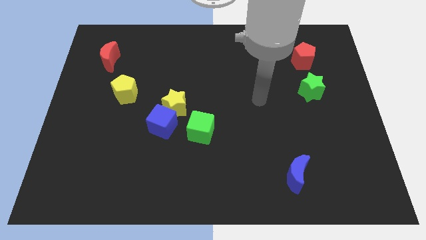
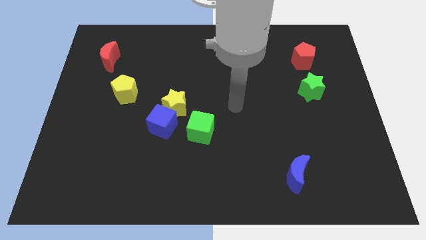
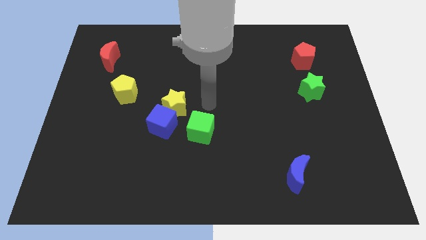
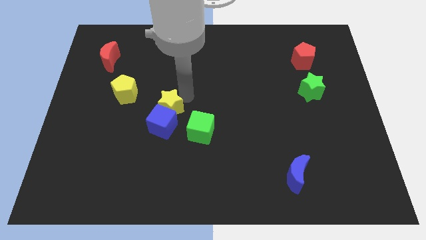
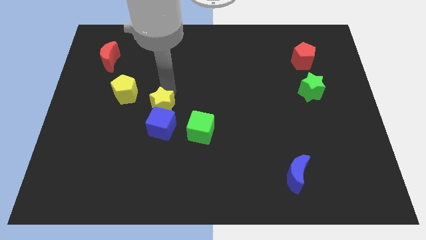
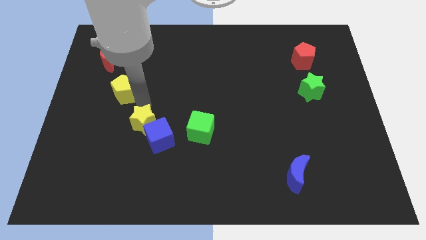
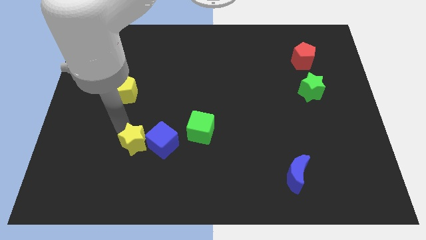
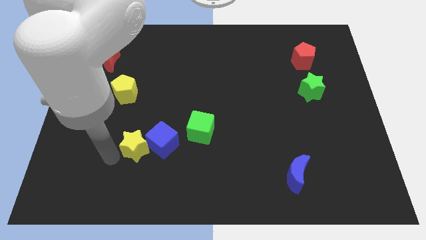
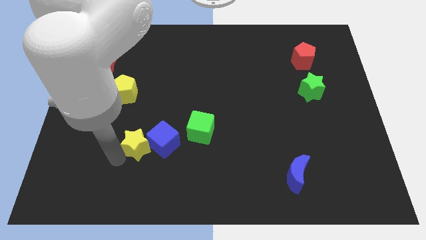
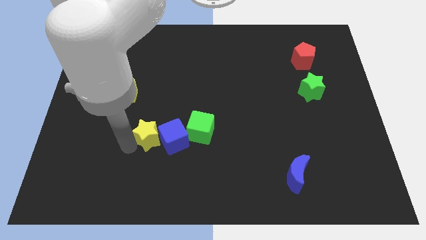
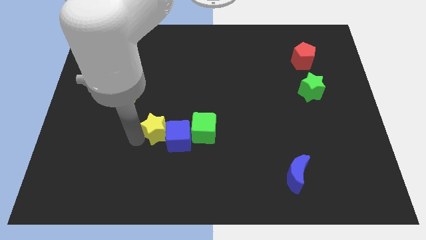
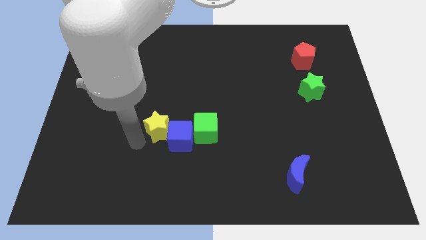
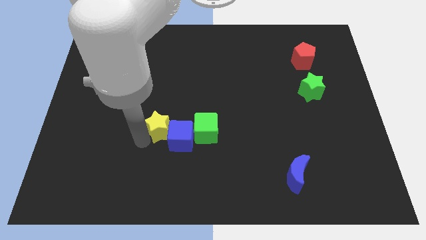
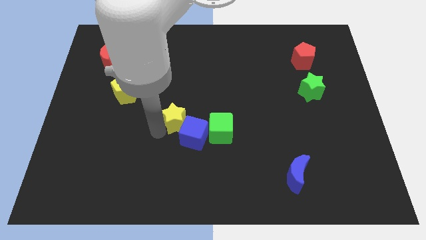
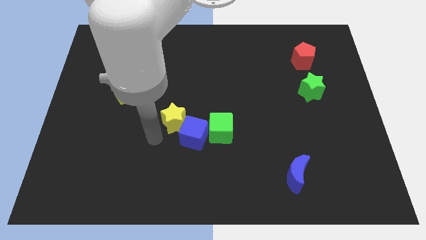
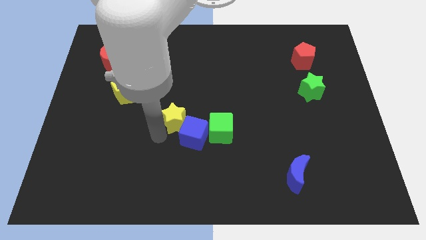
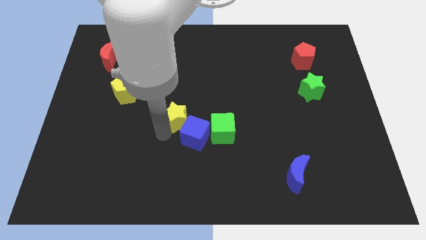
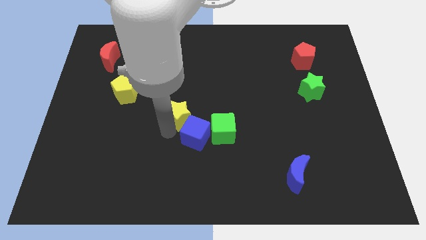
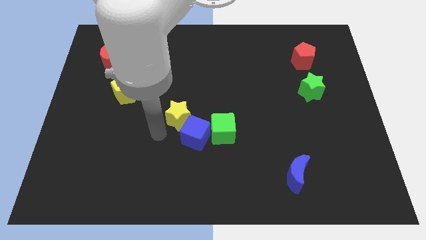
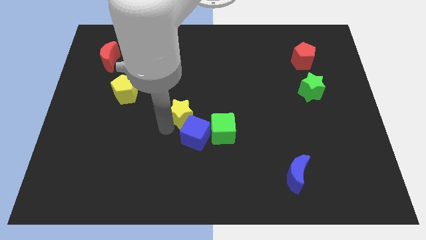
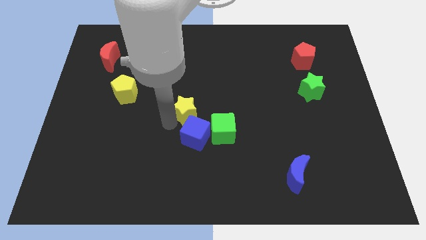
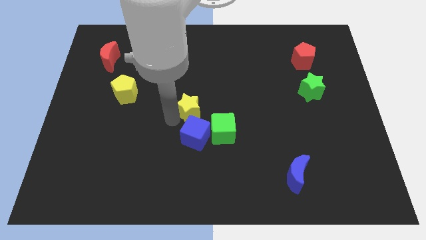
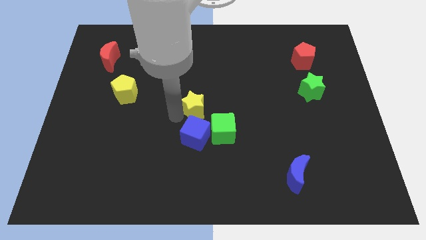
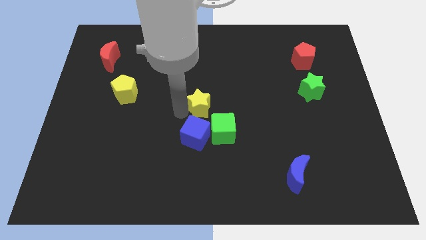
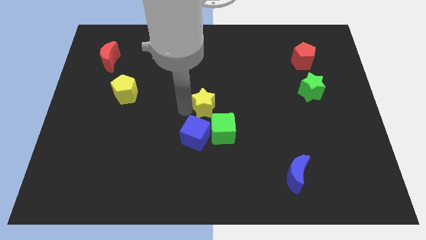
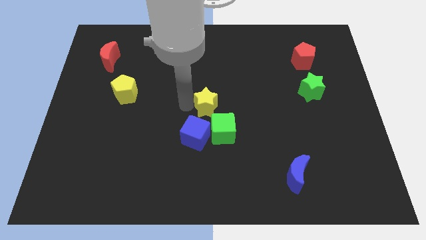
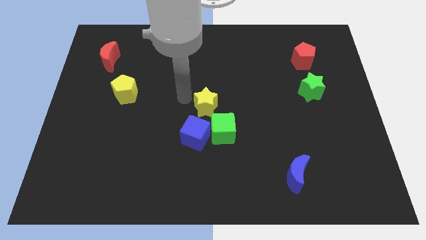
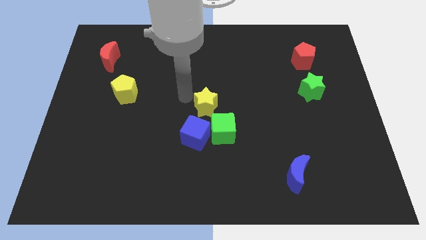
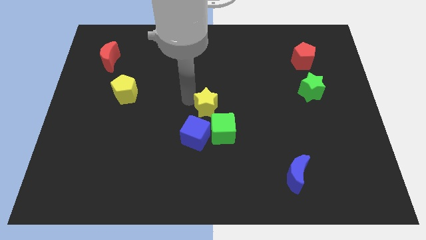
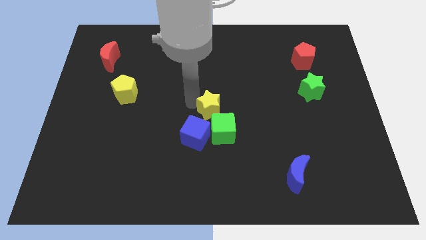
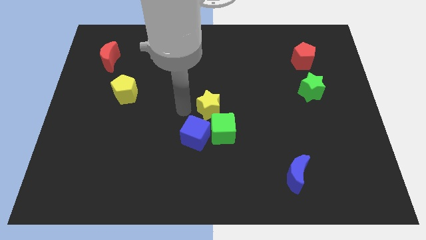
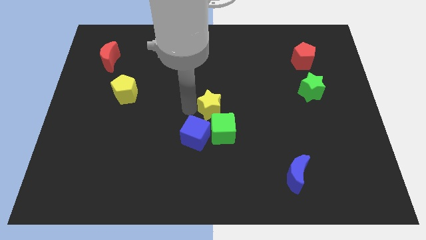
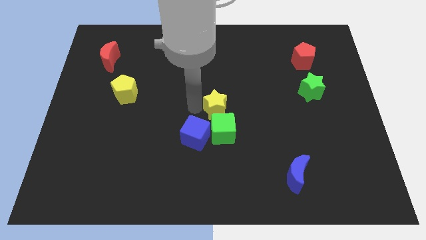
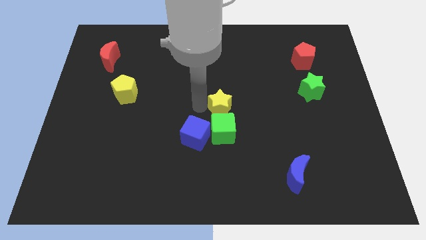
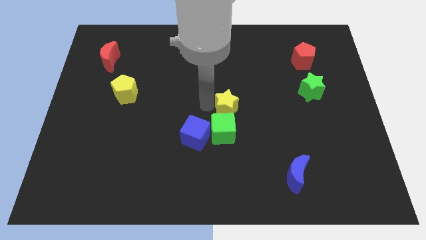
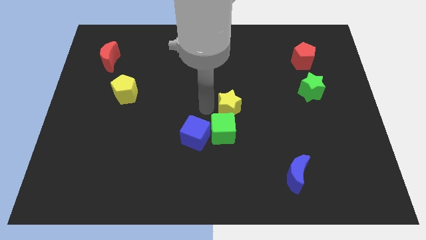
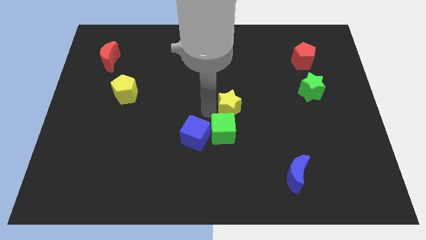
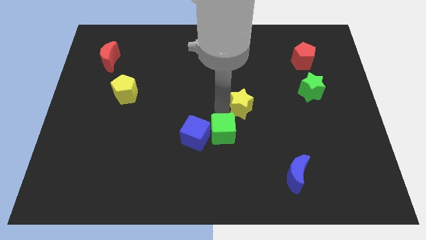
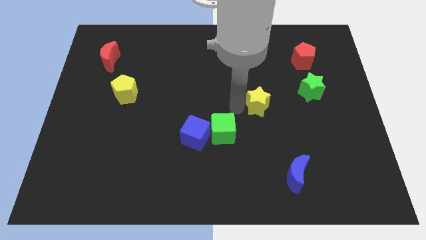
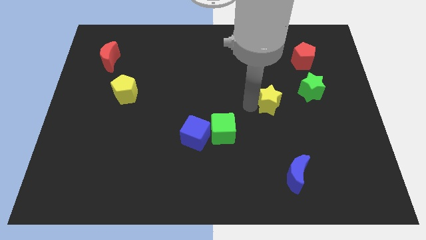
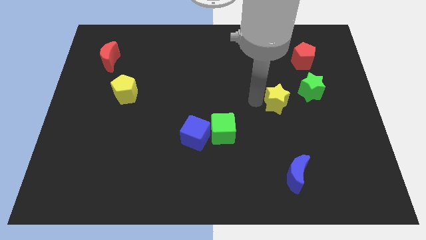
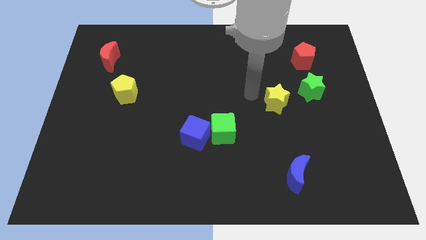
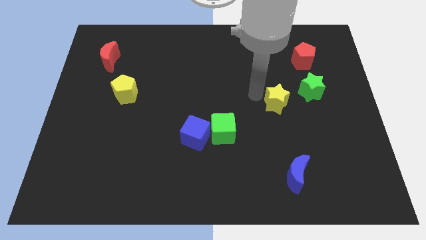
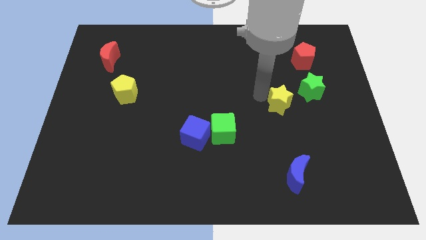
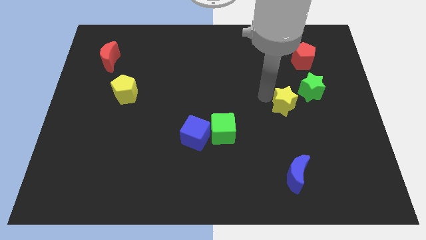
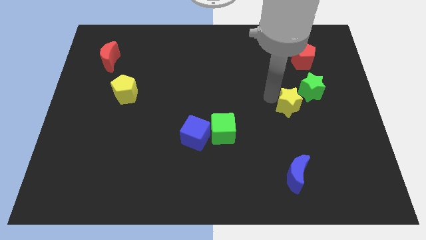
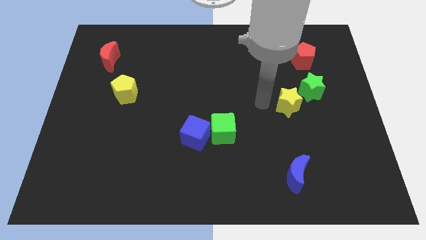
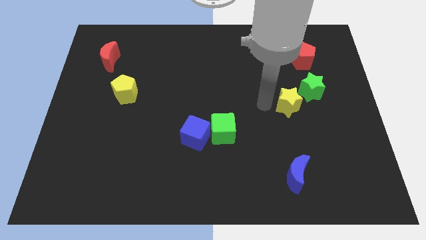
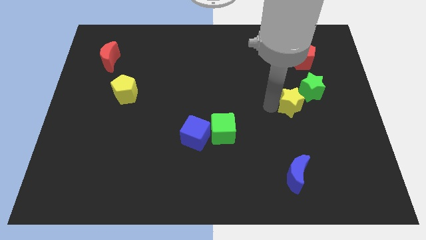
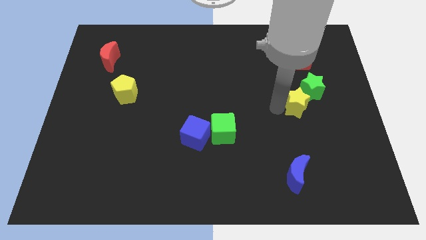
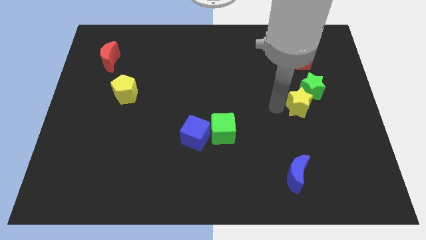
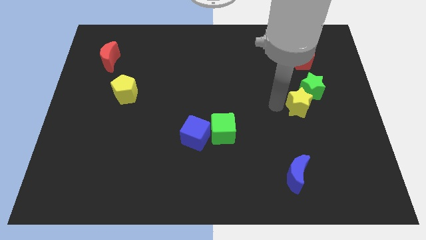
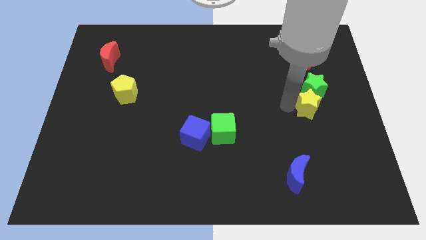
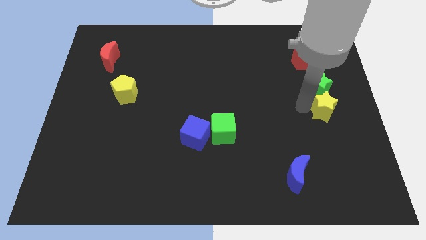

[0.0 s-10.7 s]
slide the yellow star to the center right
